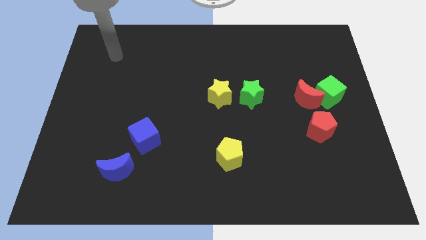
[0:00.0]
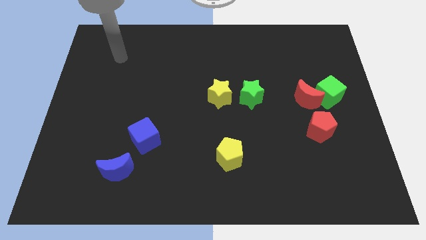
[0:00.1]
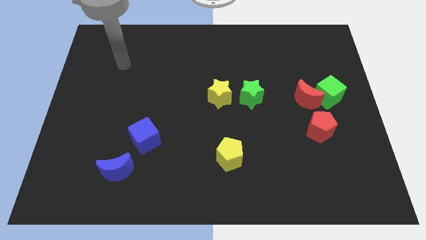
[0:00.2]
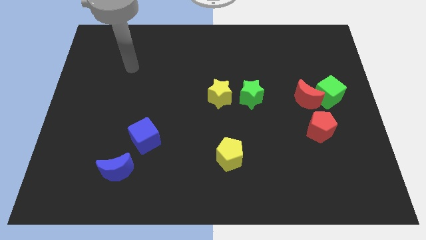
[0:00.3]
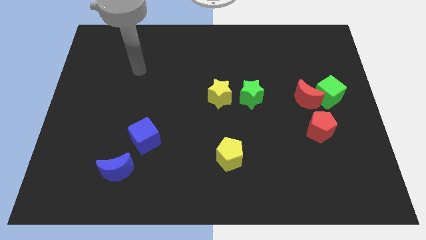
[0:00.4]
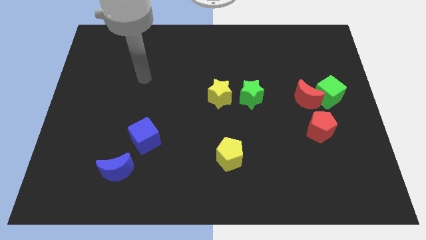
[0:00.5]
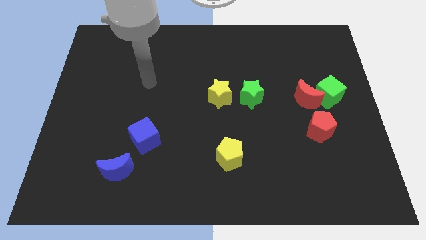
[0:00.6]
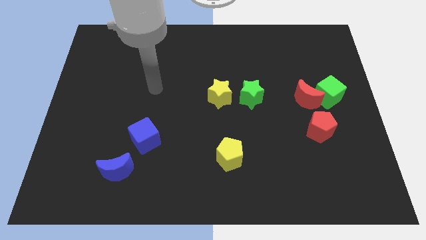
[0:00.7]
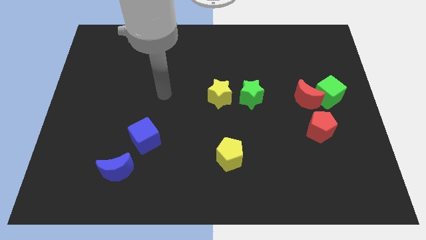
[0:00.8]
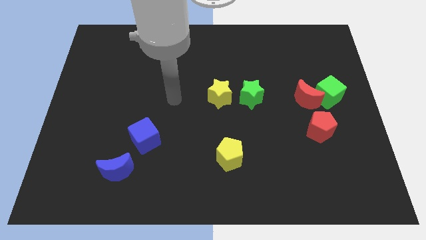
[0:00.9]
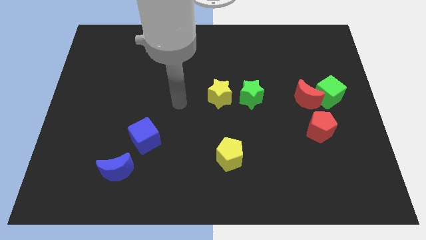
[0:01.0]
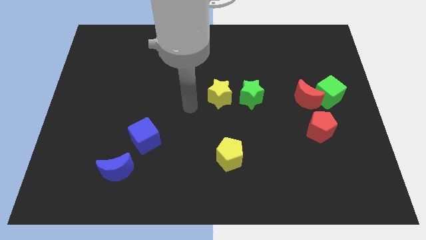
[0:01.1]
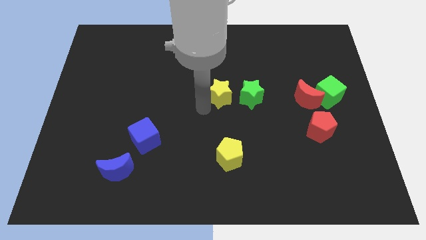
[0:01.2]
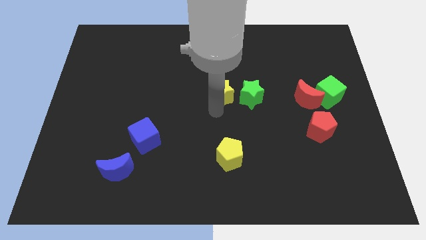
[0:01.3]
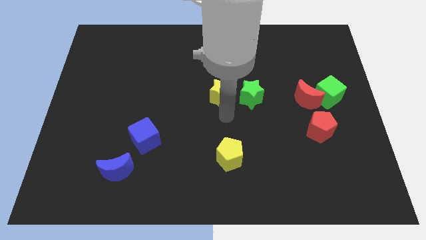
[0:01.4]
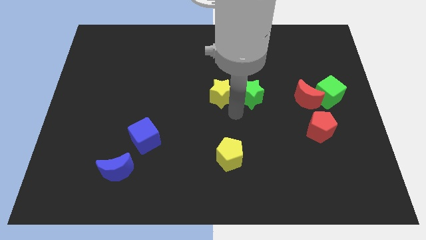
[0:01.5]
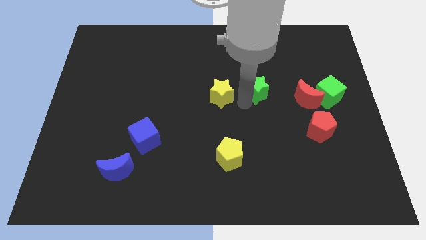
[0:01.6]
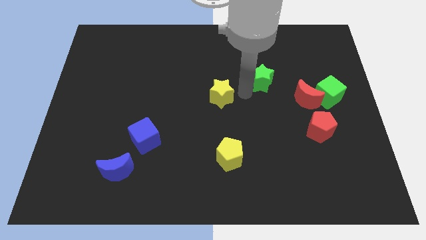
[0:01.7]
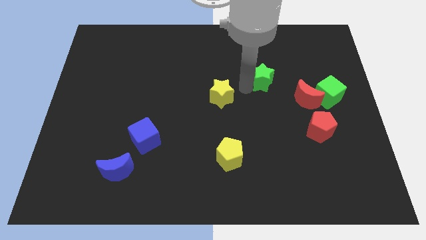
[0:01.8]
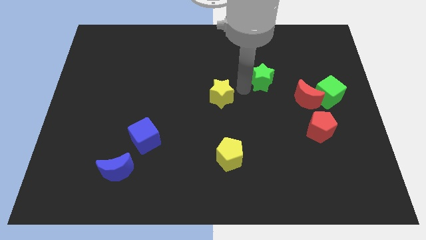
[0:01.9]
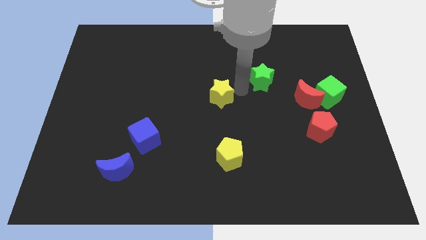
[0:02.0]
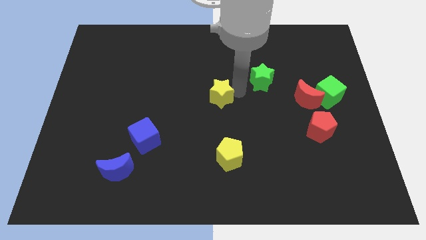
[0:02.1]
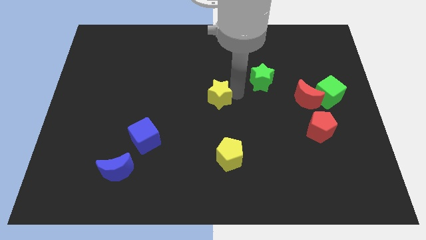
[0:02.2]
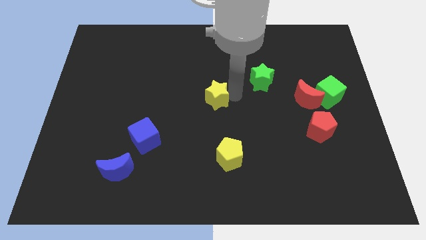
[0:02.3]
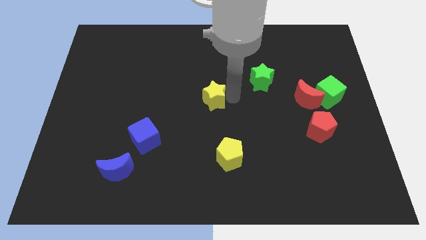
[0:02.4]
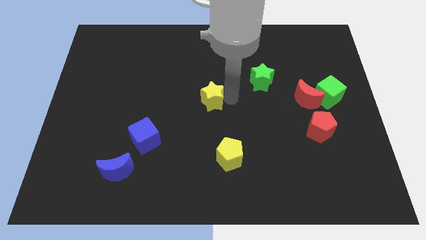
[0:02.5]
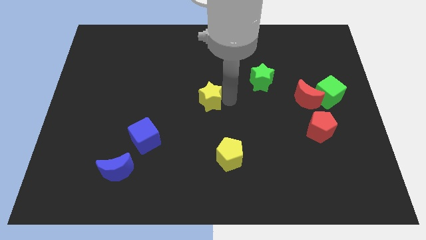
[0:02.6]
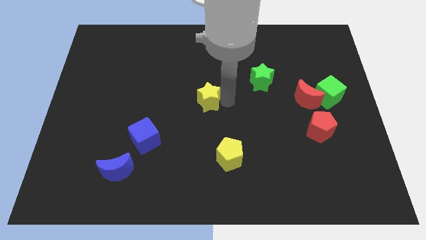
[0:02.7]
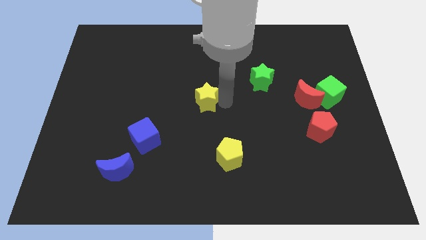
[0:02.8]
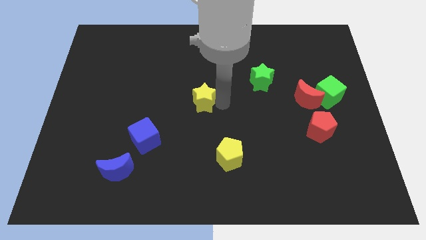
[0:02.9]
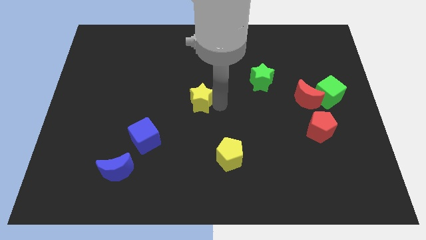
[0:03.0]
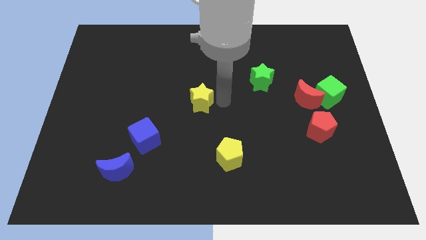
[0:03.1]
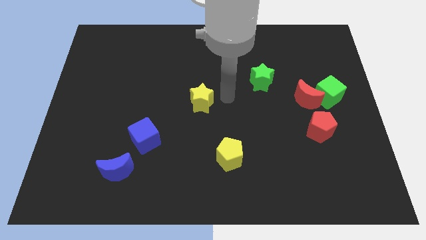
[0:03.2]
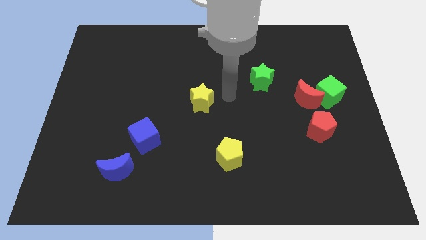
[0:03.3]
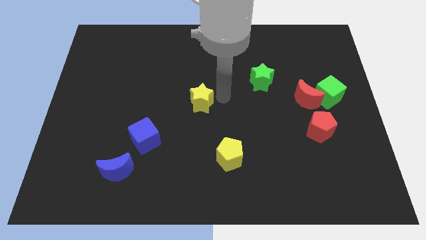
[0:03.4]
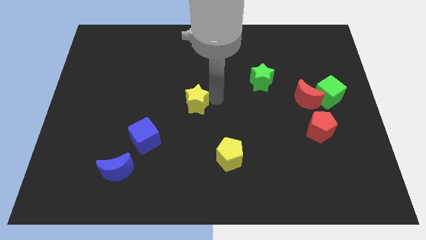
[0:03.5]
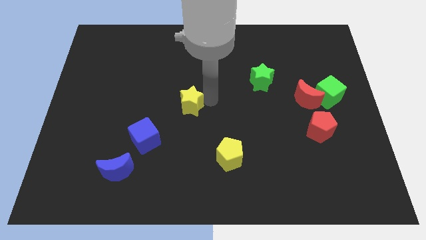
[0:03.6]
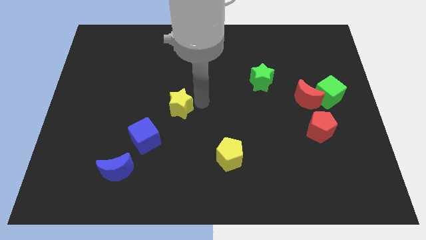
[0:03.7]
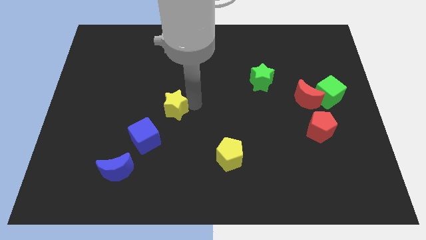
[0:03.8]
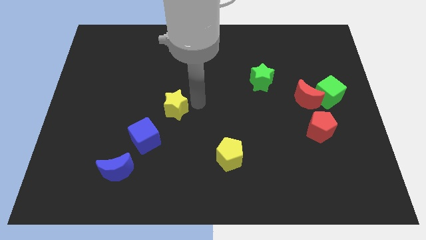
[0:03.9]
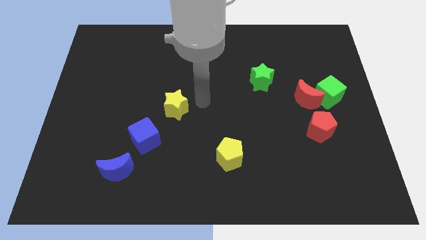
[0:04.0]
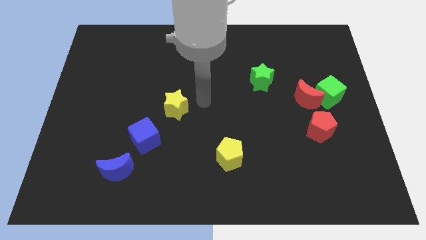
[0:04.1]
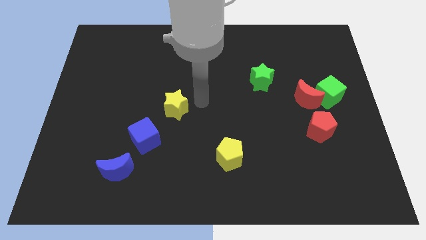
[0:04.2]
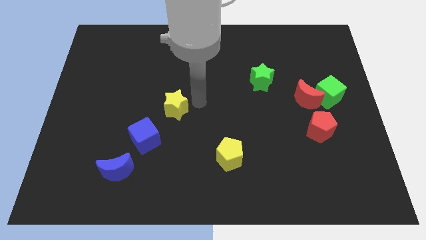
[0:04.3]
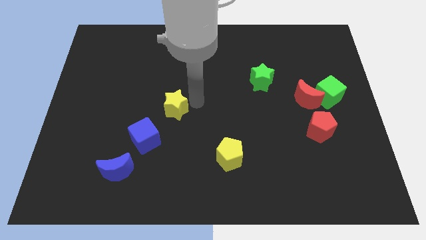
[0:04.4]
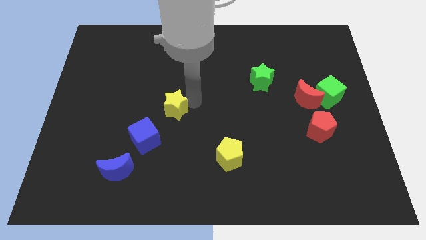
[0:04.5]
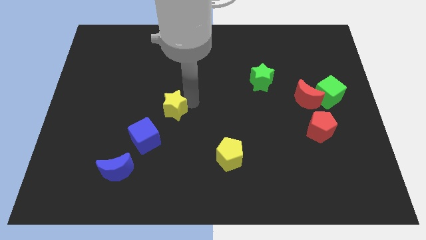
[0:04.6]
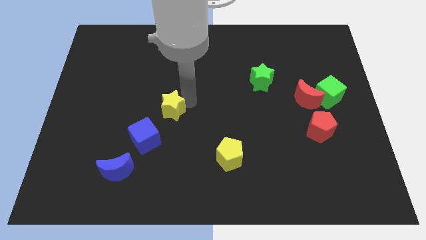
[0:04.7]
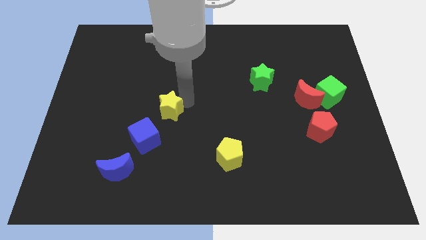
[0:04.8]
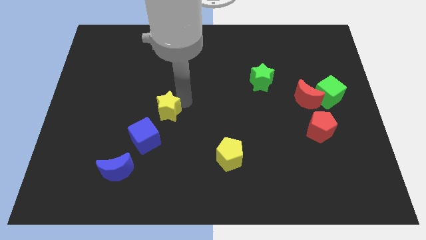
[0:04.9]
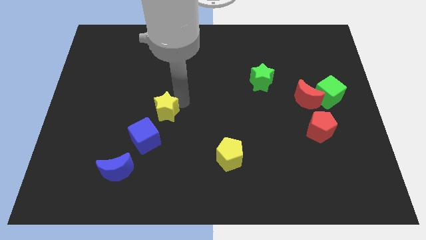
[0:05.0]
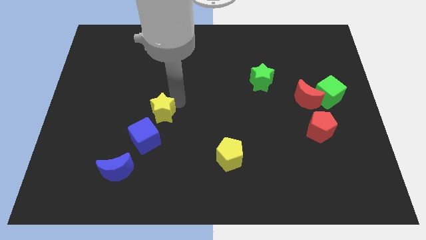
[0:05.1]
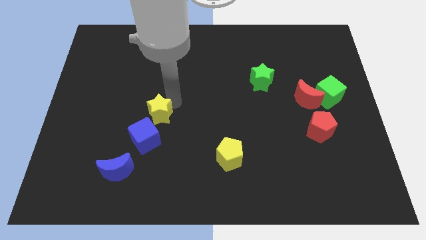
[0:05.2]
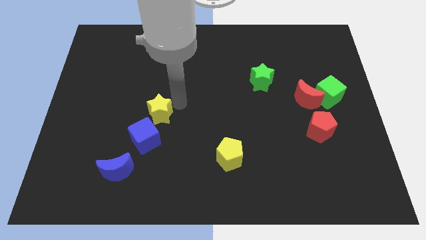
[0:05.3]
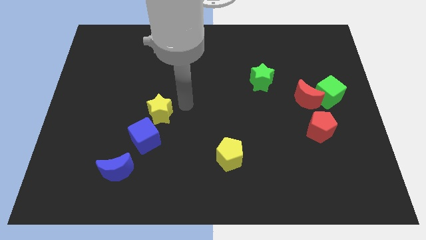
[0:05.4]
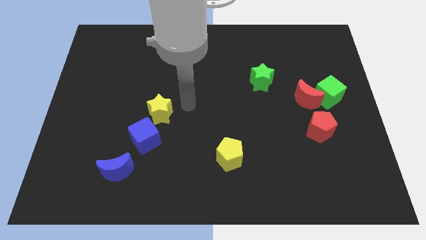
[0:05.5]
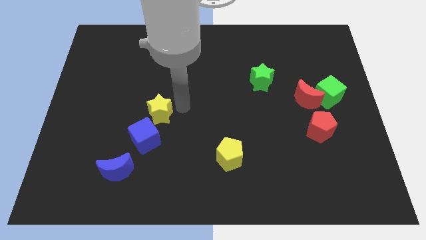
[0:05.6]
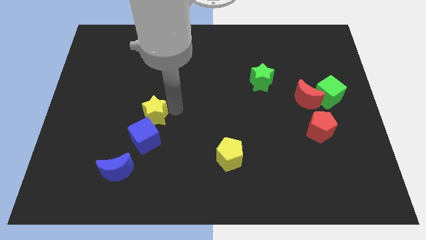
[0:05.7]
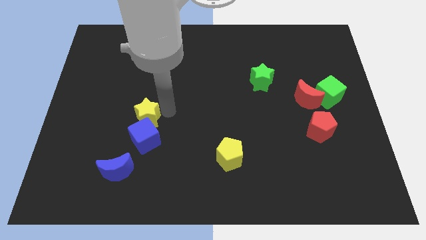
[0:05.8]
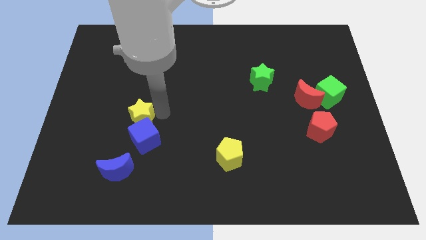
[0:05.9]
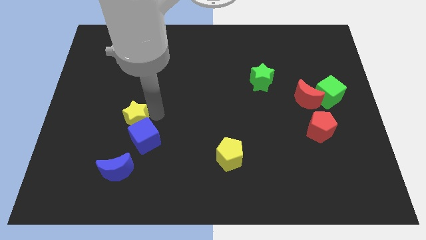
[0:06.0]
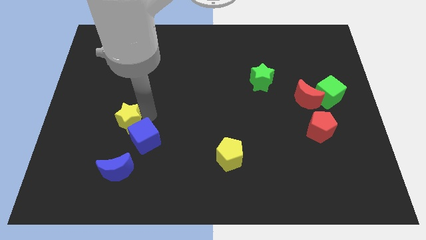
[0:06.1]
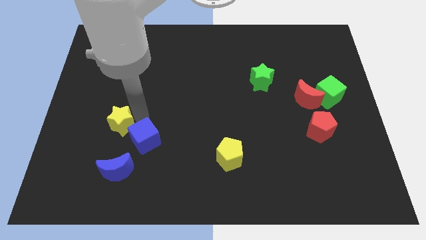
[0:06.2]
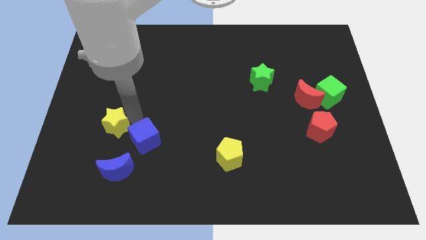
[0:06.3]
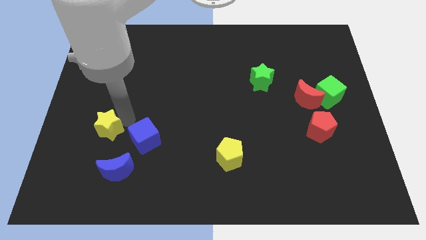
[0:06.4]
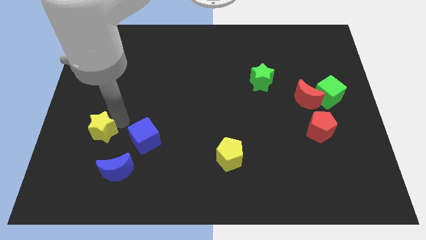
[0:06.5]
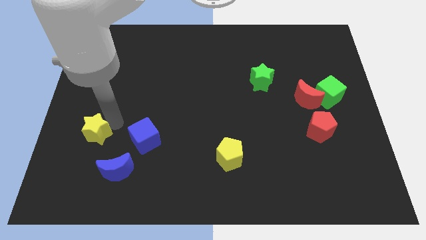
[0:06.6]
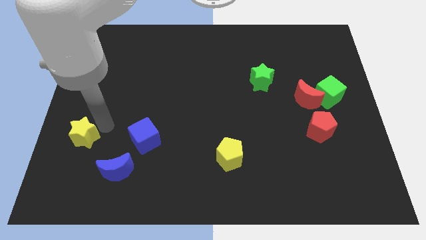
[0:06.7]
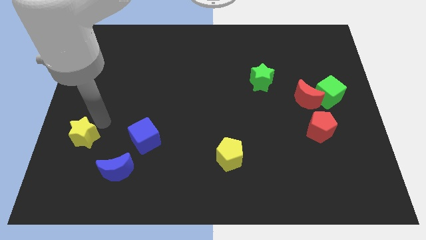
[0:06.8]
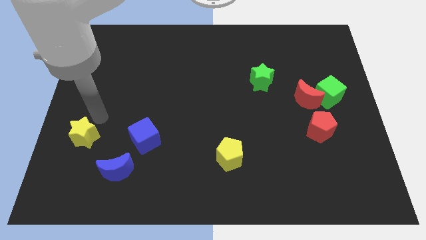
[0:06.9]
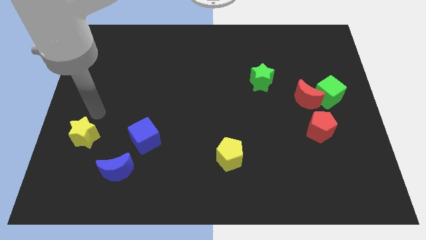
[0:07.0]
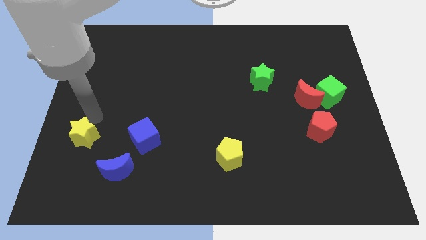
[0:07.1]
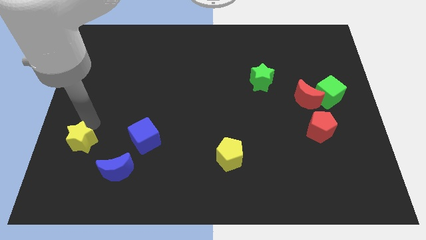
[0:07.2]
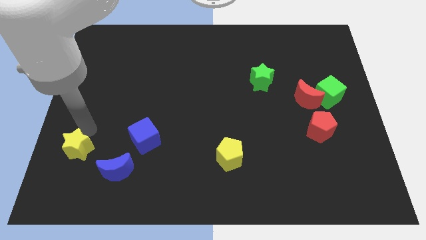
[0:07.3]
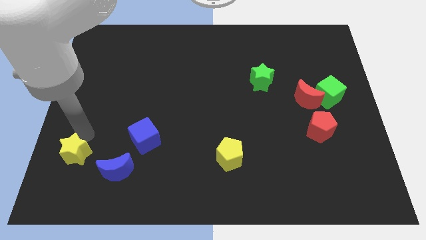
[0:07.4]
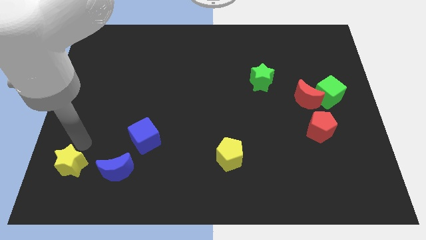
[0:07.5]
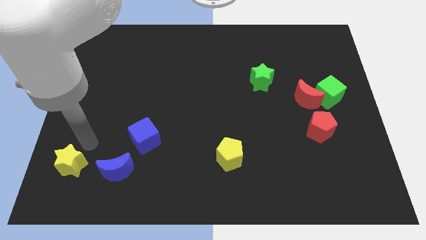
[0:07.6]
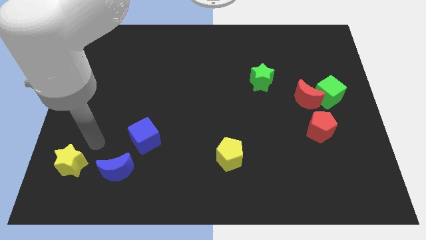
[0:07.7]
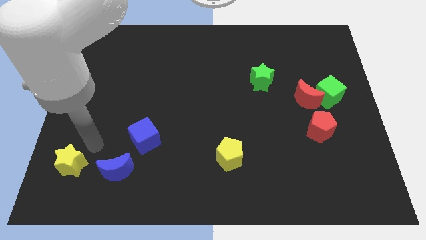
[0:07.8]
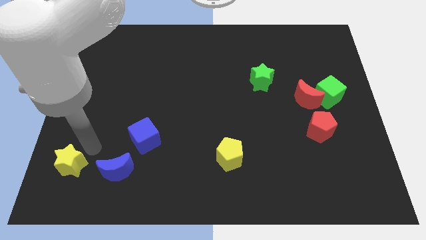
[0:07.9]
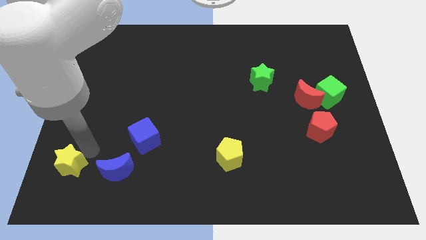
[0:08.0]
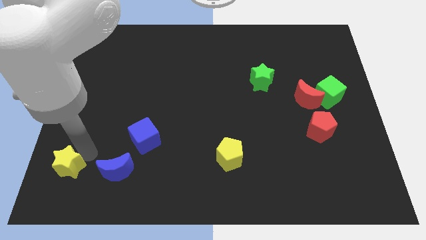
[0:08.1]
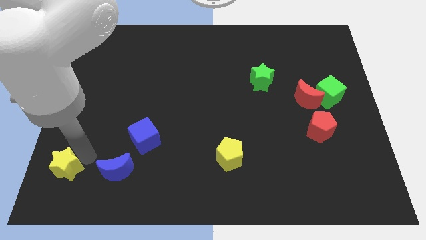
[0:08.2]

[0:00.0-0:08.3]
move the yellow star to the bottom left of the board
